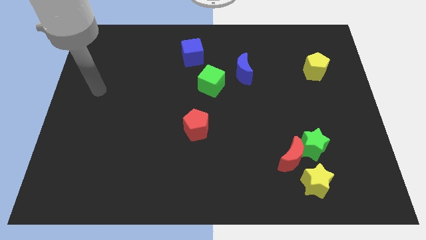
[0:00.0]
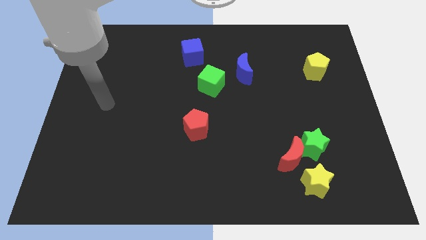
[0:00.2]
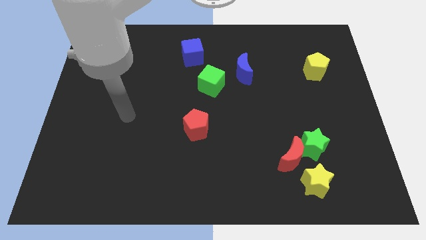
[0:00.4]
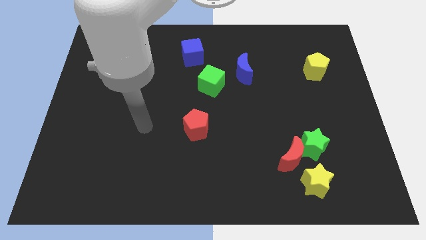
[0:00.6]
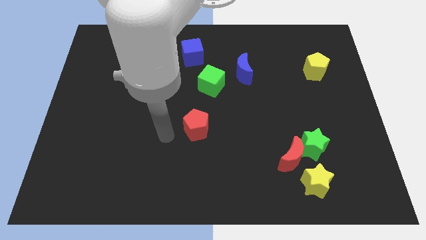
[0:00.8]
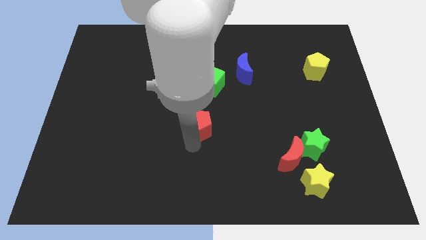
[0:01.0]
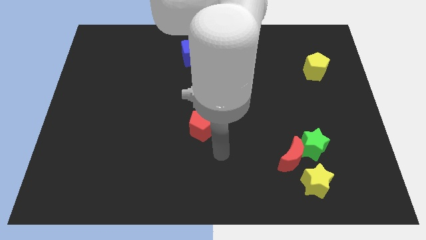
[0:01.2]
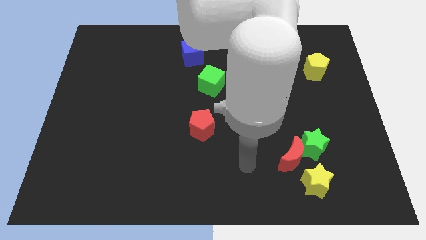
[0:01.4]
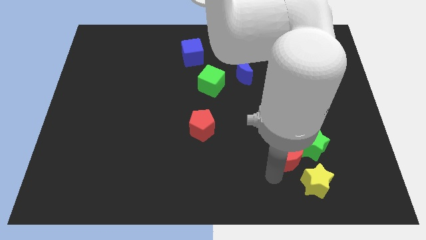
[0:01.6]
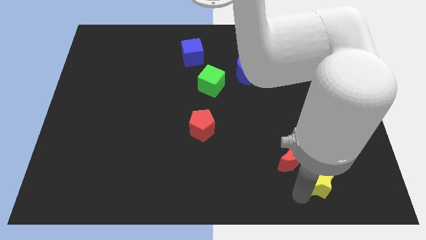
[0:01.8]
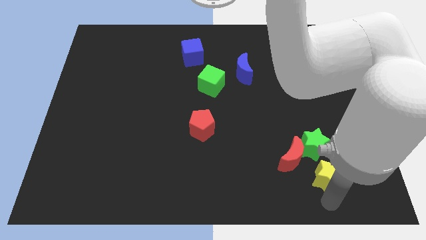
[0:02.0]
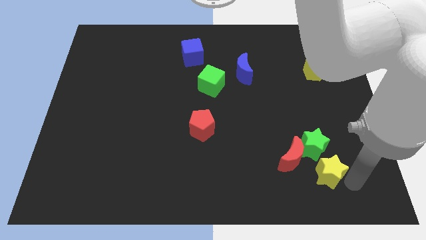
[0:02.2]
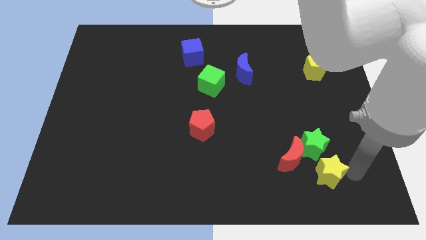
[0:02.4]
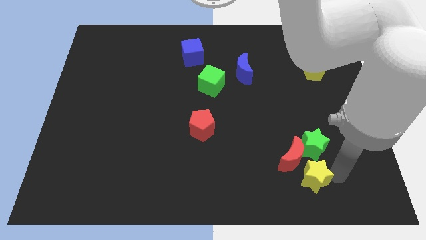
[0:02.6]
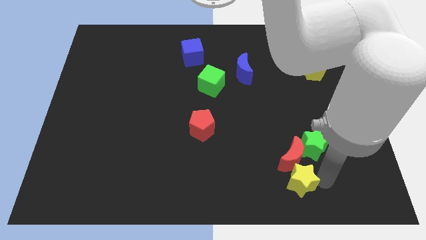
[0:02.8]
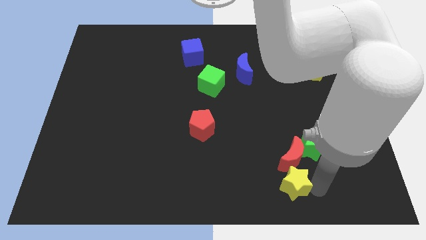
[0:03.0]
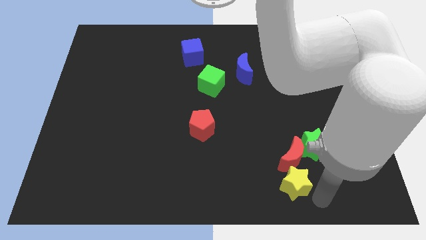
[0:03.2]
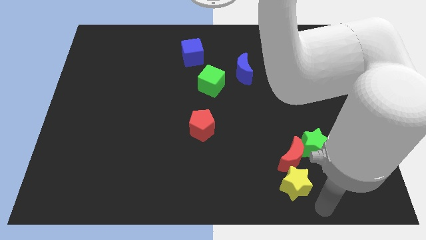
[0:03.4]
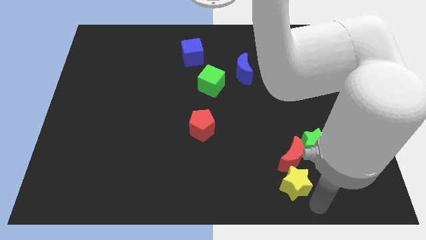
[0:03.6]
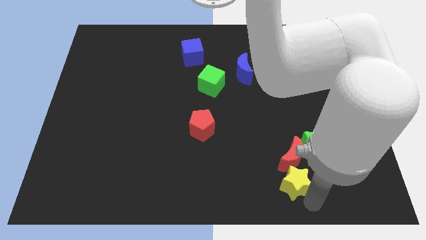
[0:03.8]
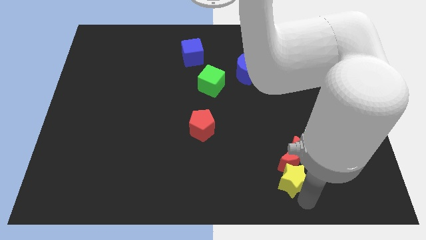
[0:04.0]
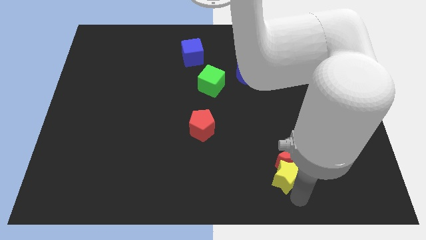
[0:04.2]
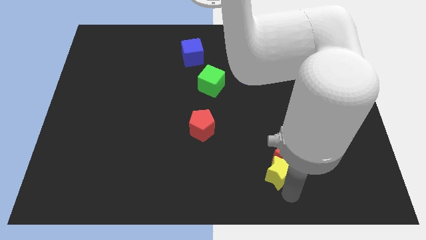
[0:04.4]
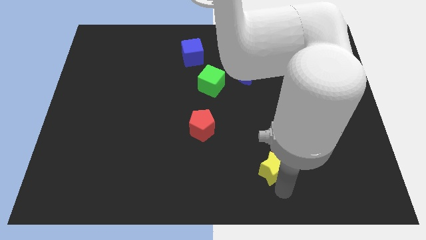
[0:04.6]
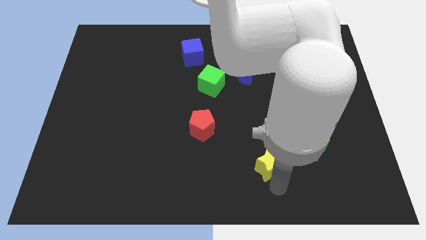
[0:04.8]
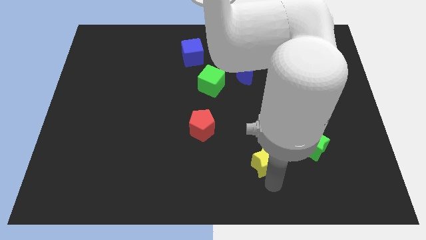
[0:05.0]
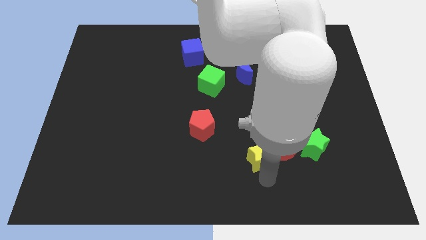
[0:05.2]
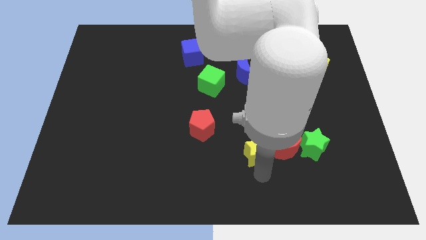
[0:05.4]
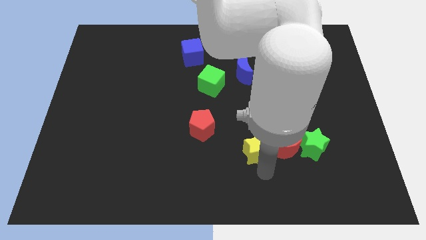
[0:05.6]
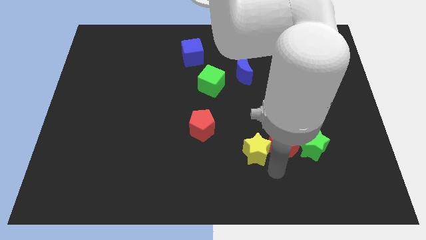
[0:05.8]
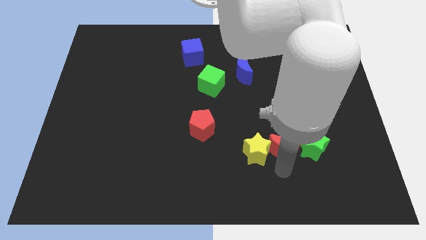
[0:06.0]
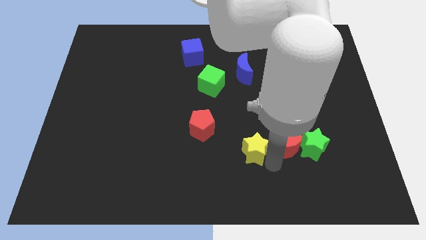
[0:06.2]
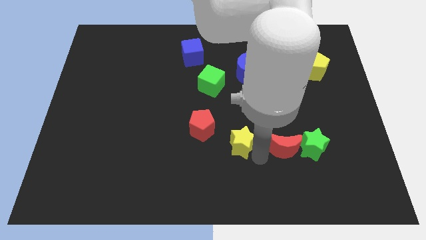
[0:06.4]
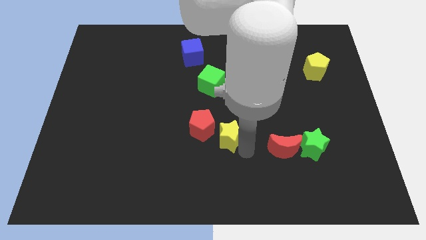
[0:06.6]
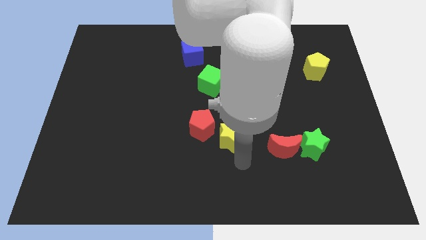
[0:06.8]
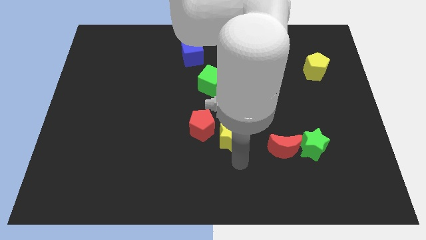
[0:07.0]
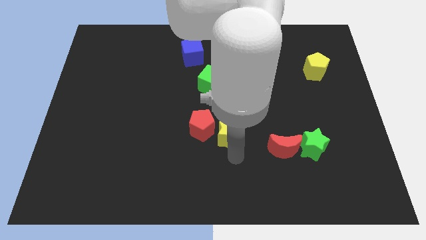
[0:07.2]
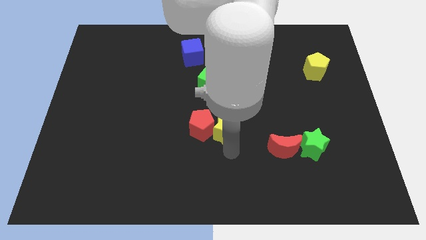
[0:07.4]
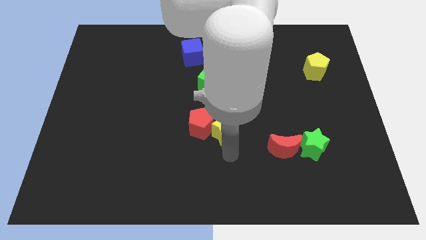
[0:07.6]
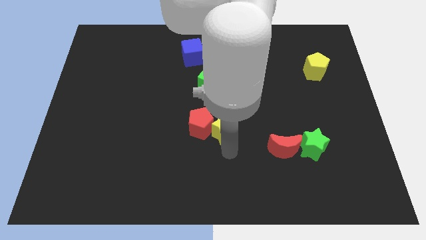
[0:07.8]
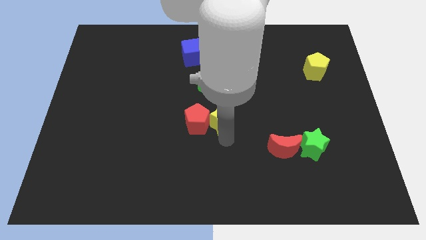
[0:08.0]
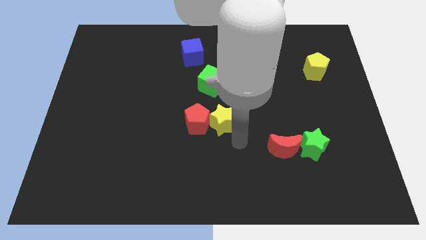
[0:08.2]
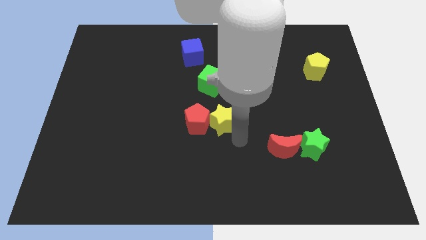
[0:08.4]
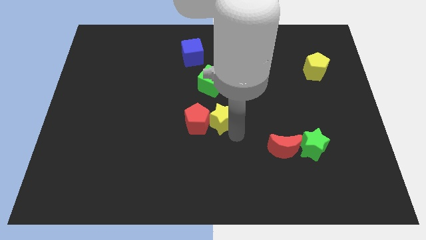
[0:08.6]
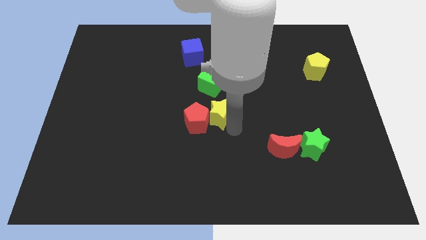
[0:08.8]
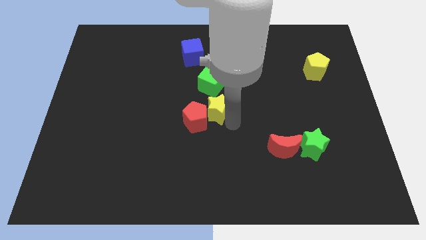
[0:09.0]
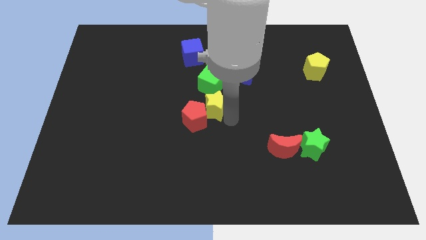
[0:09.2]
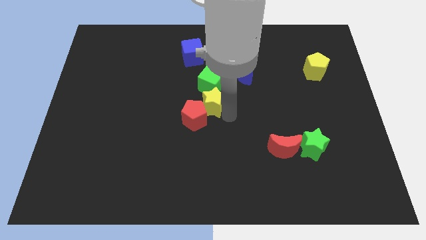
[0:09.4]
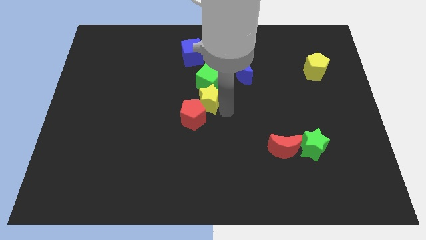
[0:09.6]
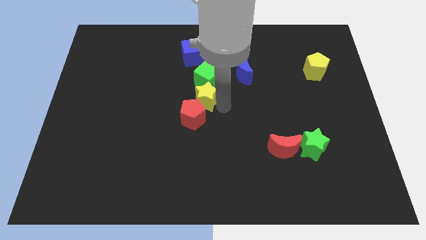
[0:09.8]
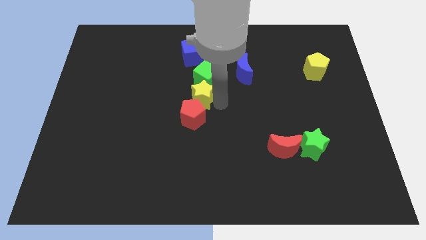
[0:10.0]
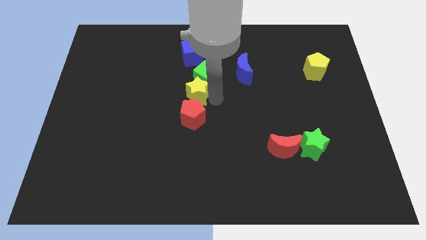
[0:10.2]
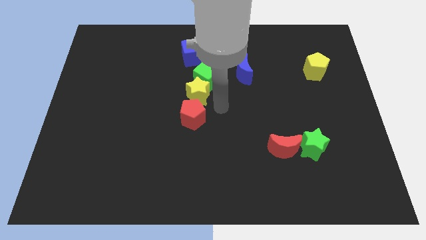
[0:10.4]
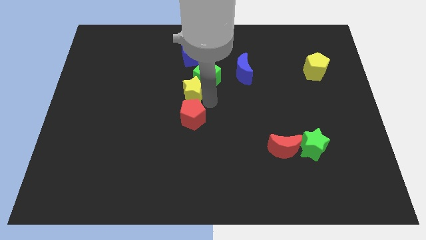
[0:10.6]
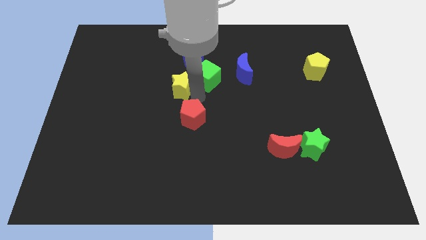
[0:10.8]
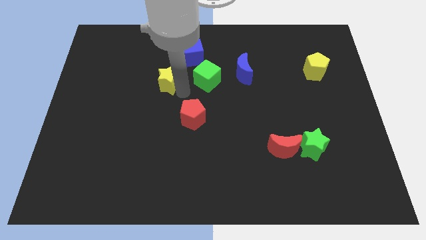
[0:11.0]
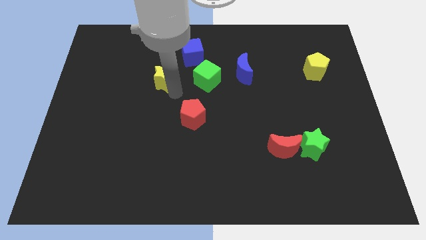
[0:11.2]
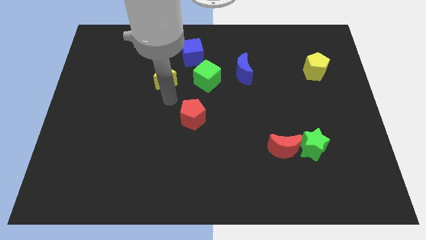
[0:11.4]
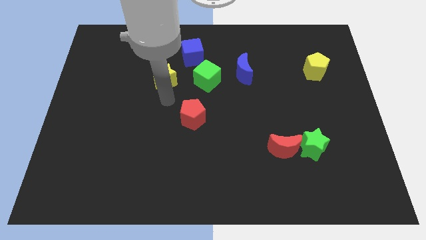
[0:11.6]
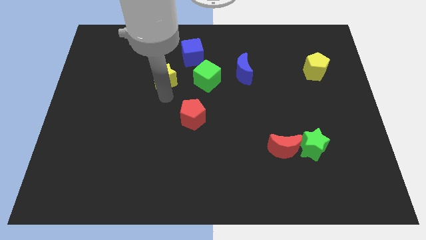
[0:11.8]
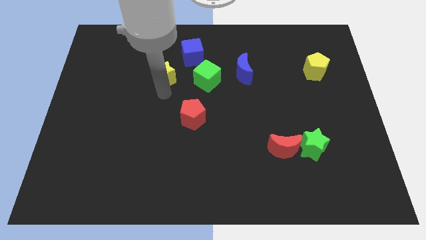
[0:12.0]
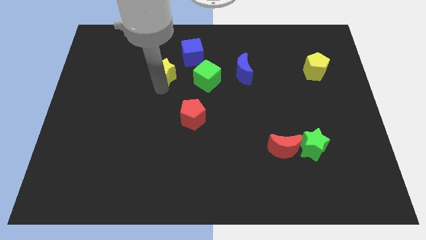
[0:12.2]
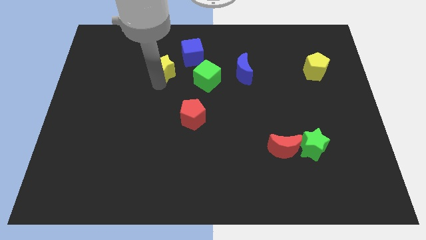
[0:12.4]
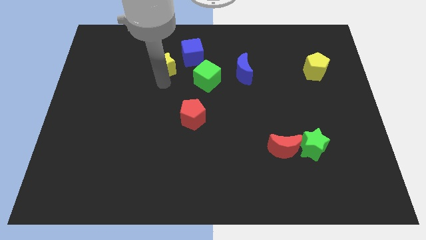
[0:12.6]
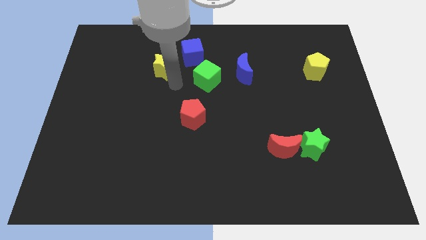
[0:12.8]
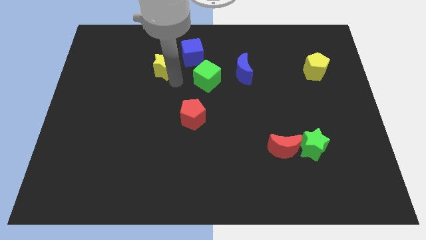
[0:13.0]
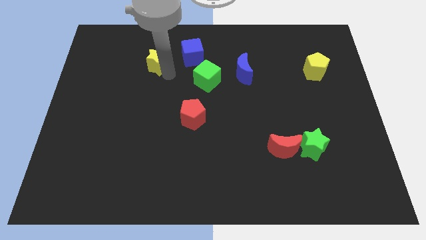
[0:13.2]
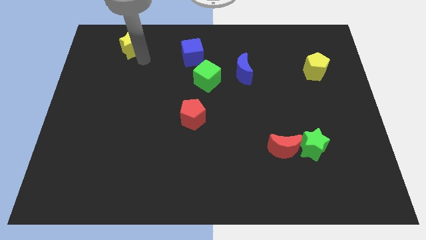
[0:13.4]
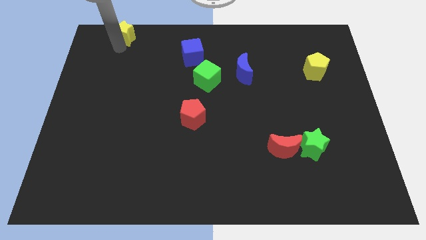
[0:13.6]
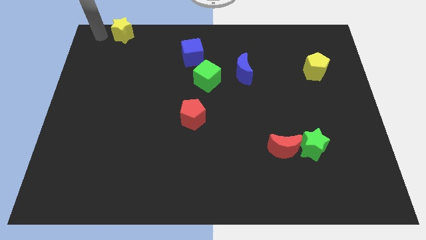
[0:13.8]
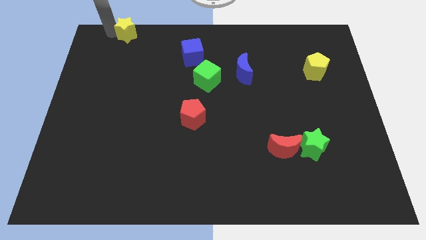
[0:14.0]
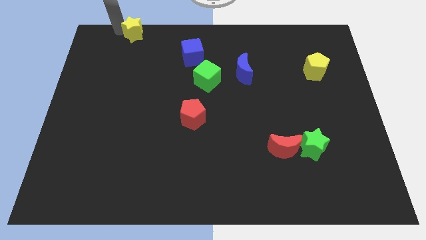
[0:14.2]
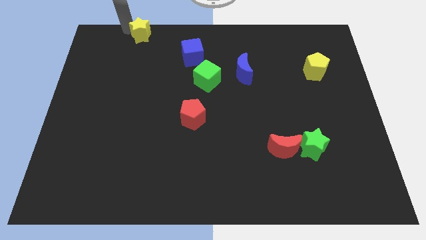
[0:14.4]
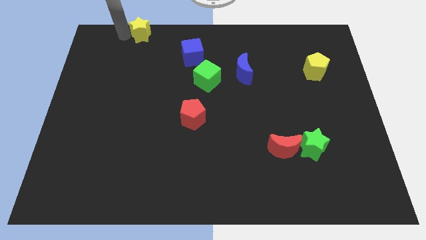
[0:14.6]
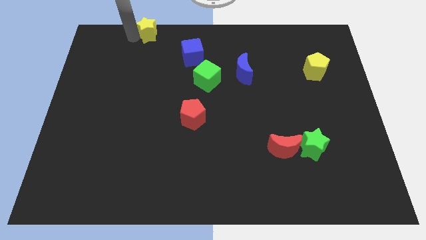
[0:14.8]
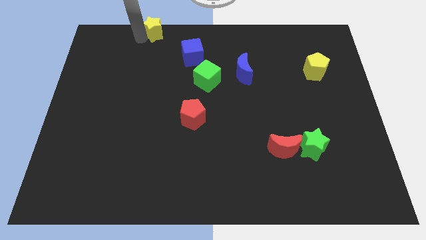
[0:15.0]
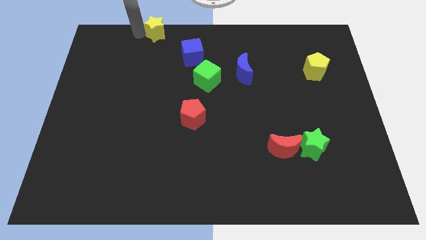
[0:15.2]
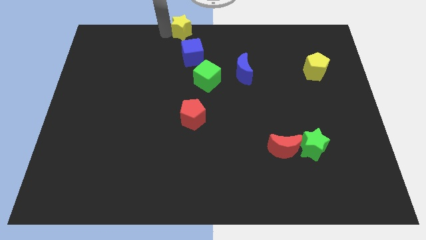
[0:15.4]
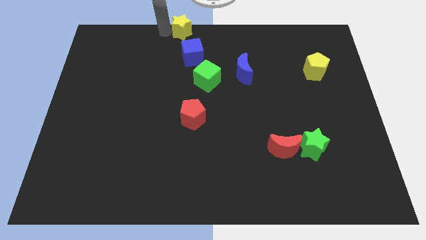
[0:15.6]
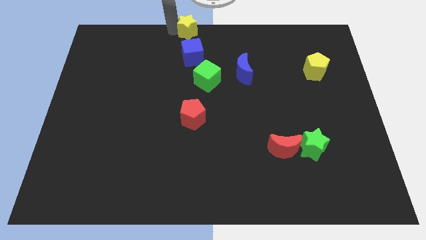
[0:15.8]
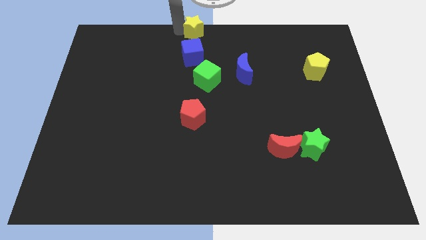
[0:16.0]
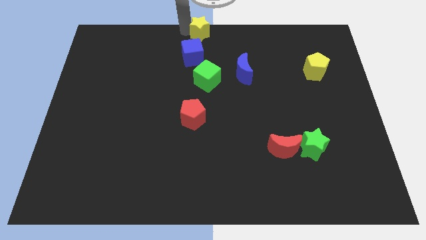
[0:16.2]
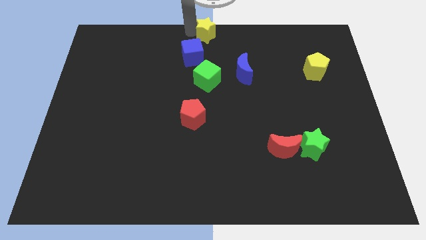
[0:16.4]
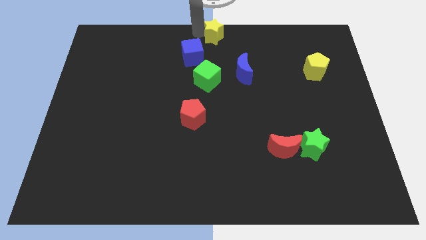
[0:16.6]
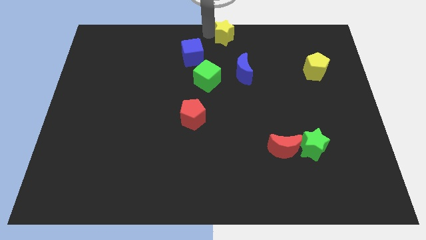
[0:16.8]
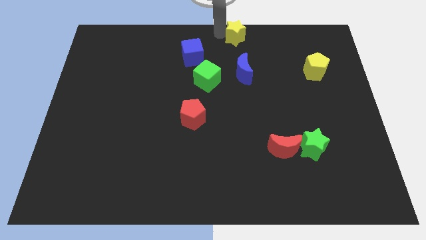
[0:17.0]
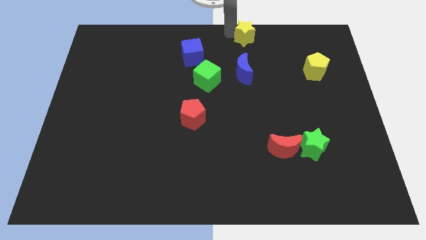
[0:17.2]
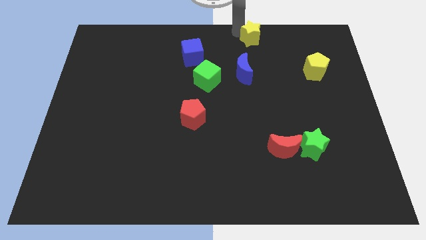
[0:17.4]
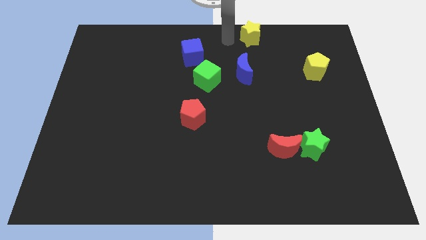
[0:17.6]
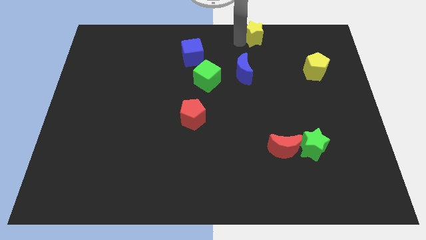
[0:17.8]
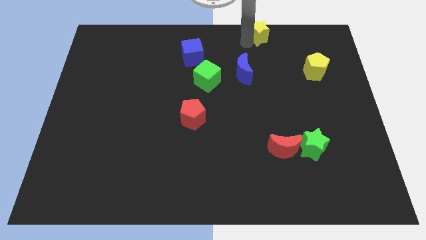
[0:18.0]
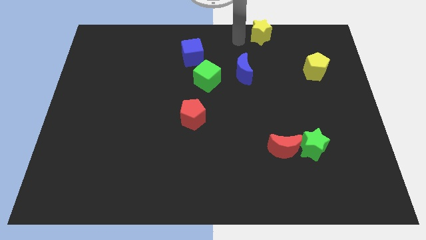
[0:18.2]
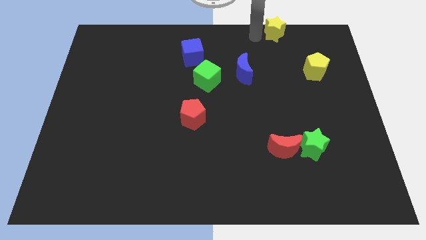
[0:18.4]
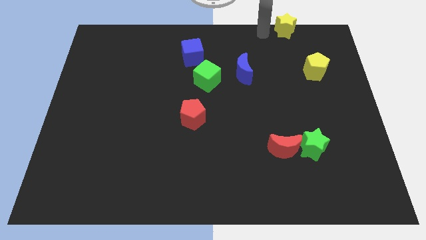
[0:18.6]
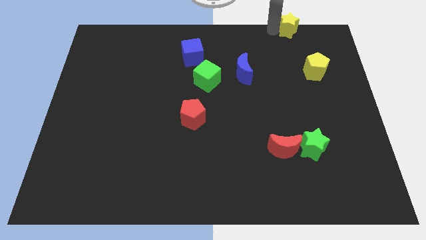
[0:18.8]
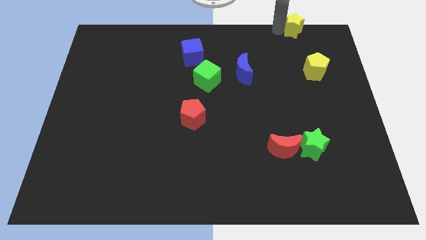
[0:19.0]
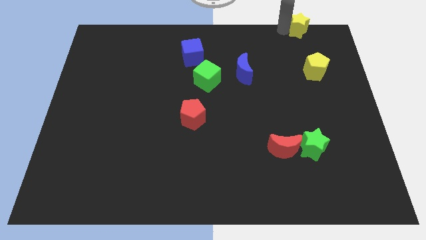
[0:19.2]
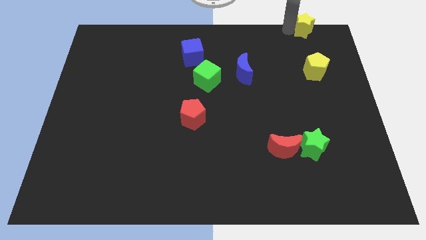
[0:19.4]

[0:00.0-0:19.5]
slide the yellow star to the top right corner
